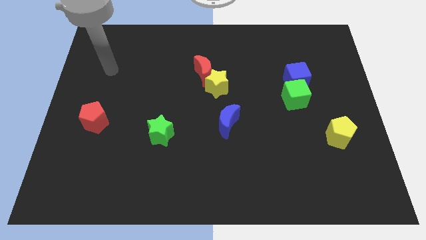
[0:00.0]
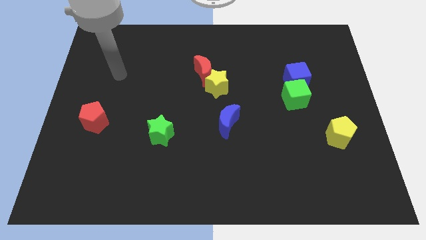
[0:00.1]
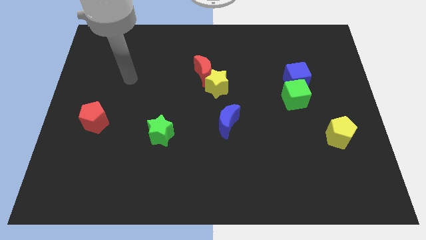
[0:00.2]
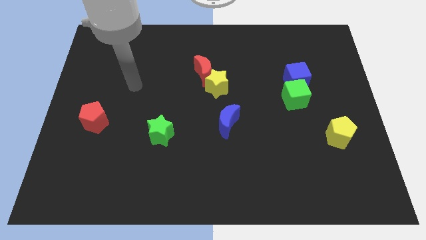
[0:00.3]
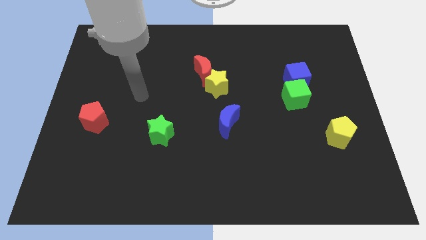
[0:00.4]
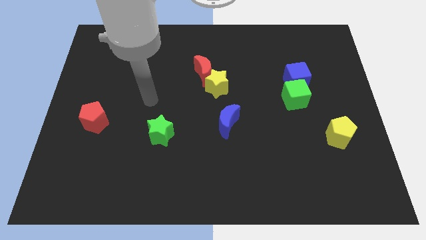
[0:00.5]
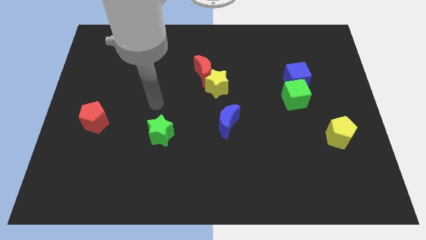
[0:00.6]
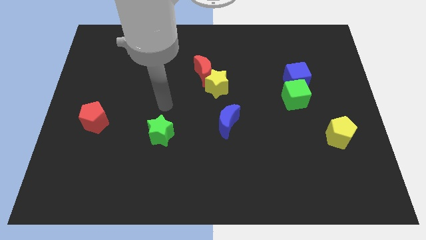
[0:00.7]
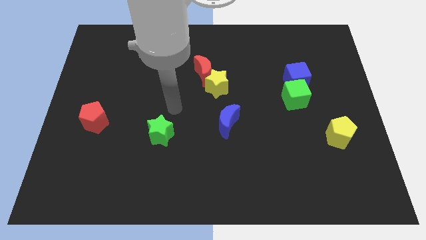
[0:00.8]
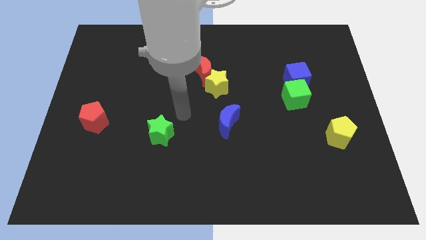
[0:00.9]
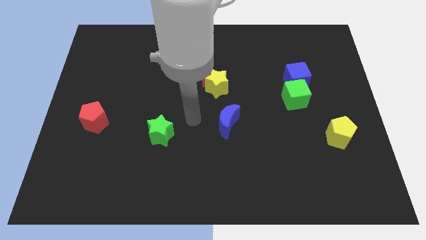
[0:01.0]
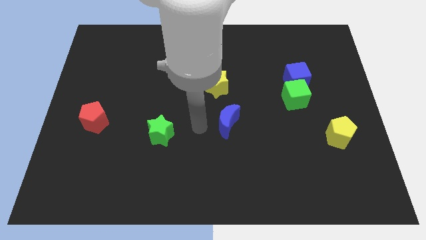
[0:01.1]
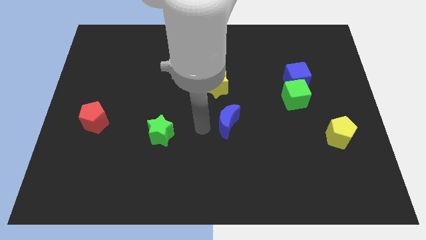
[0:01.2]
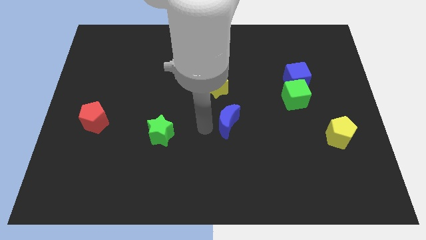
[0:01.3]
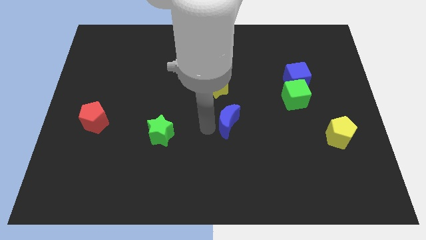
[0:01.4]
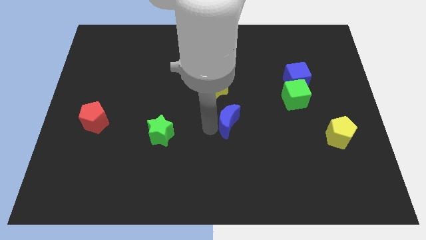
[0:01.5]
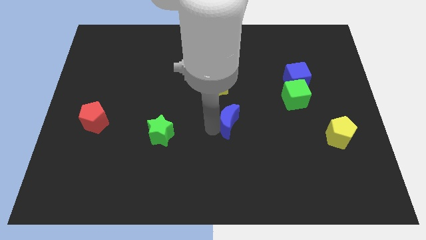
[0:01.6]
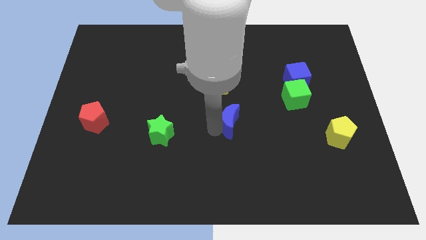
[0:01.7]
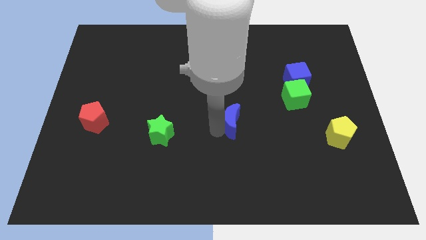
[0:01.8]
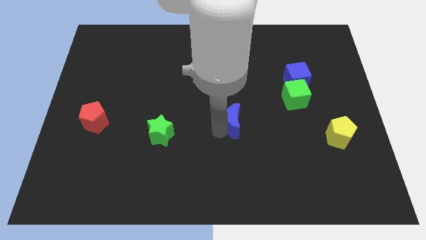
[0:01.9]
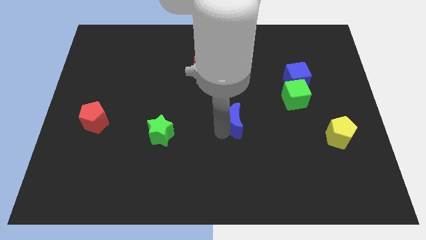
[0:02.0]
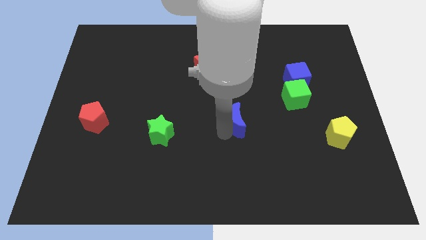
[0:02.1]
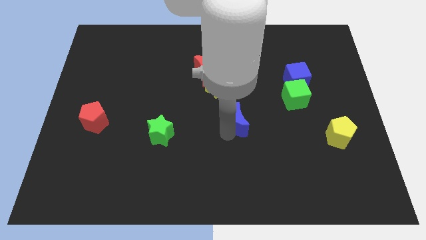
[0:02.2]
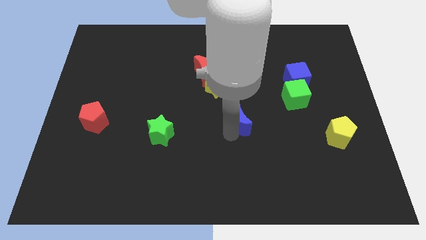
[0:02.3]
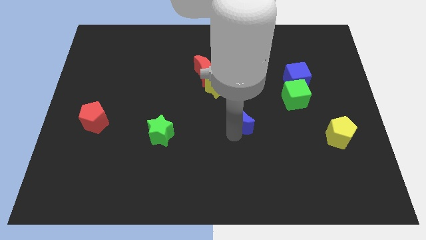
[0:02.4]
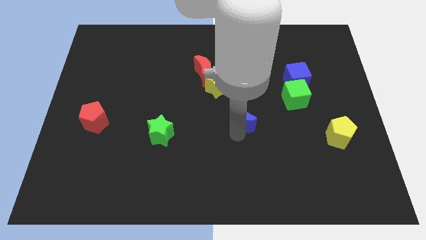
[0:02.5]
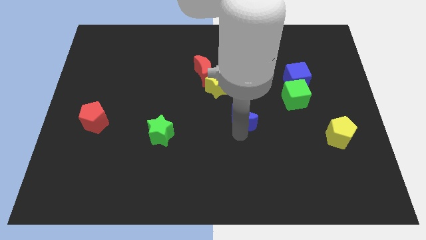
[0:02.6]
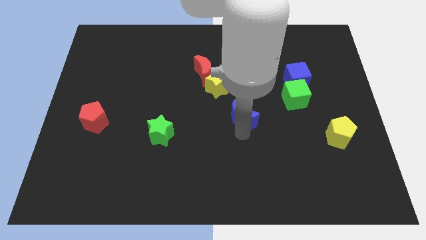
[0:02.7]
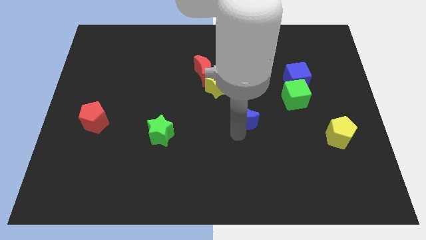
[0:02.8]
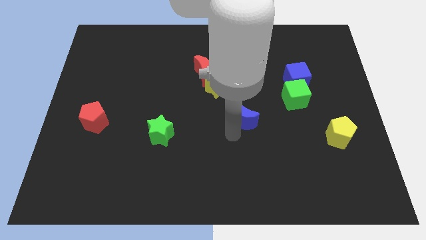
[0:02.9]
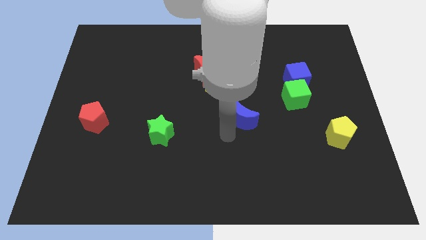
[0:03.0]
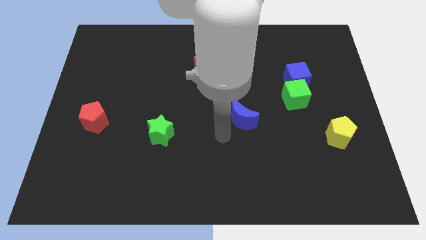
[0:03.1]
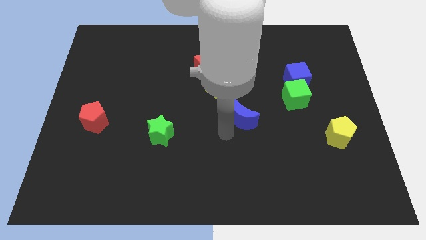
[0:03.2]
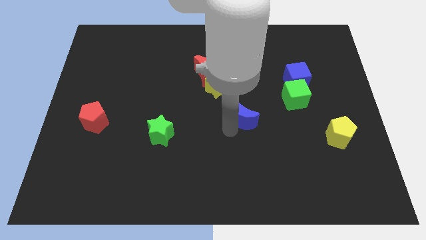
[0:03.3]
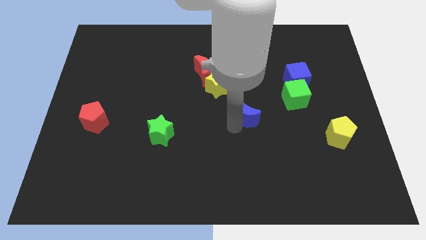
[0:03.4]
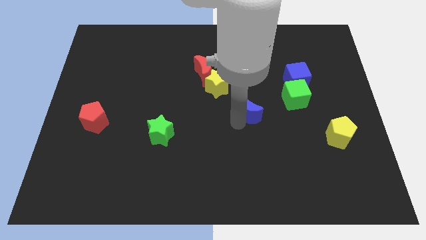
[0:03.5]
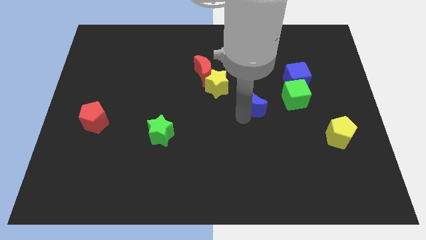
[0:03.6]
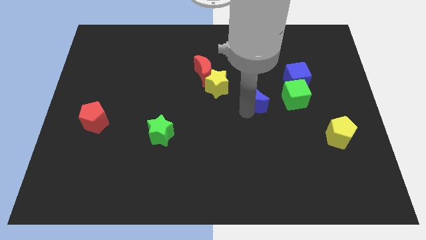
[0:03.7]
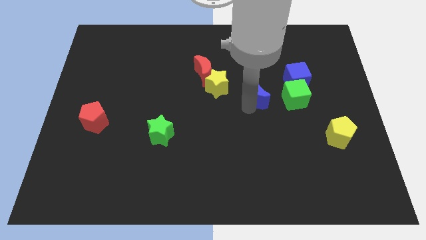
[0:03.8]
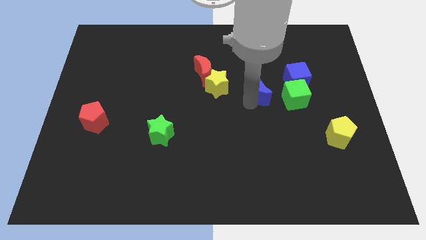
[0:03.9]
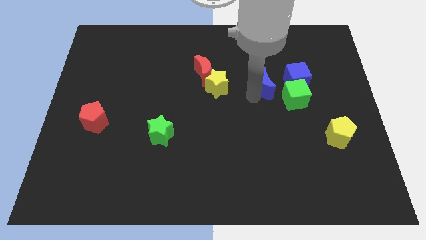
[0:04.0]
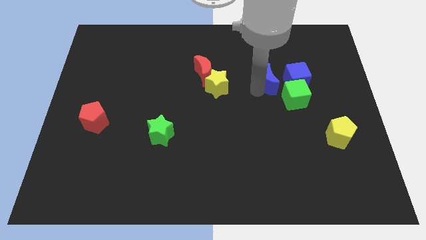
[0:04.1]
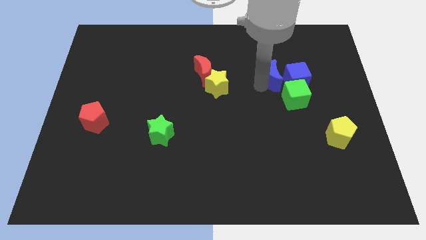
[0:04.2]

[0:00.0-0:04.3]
move the blue moon to the blue cube

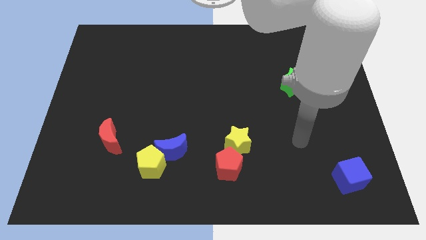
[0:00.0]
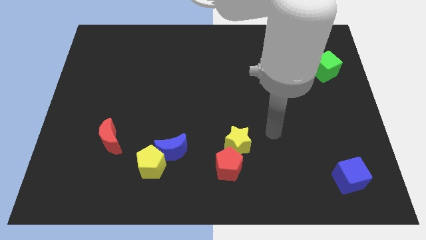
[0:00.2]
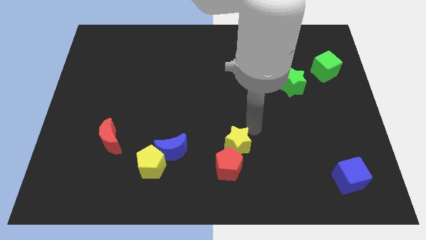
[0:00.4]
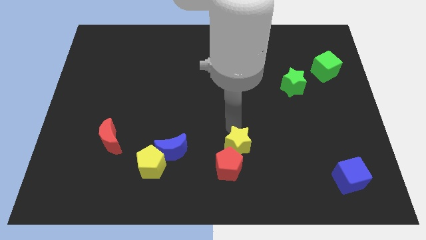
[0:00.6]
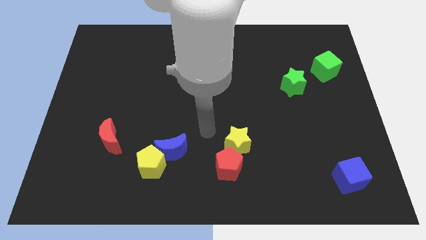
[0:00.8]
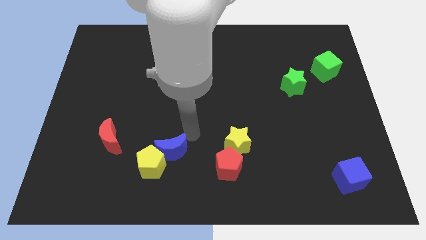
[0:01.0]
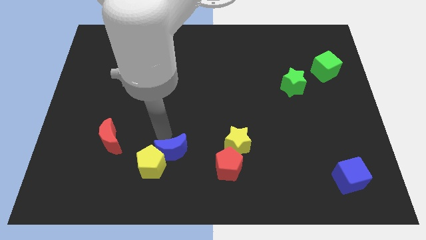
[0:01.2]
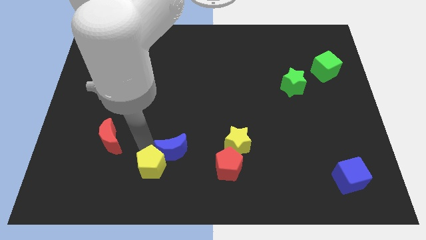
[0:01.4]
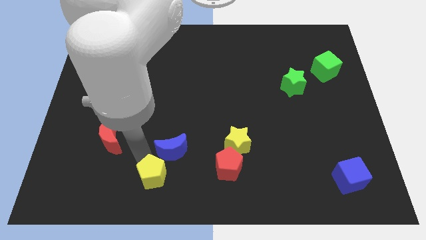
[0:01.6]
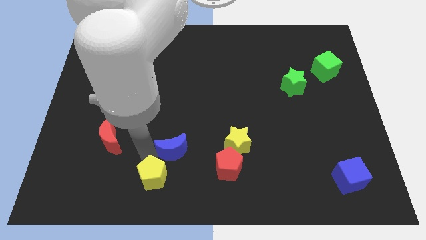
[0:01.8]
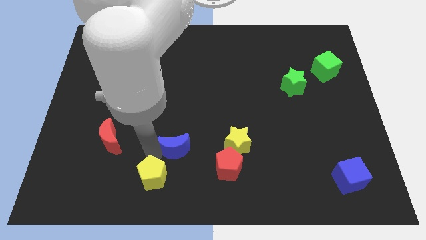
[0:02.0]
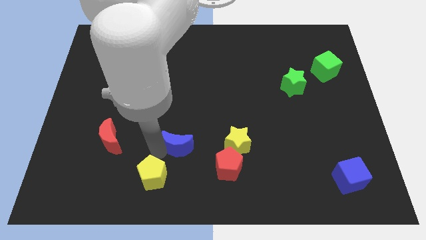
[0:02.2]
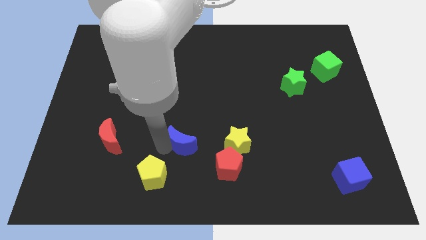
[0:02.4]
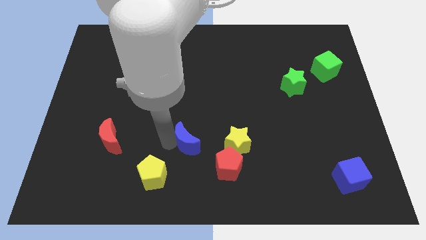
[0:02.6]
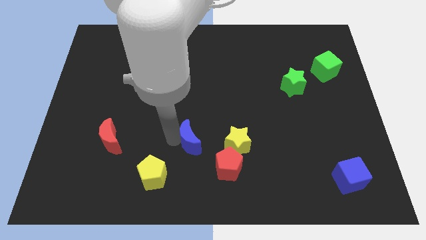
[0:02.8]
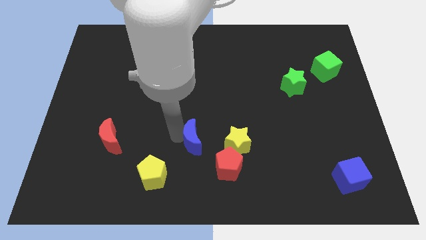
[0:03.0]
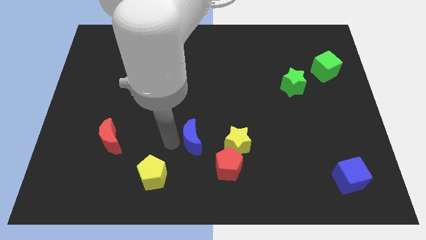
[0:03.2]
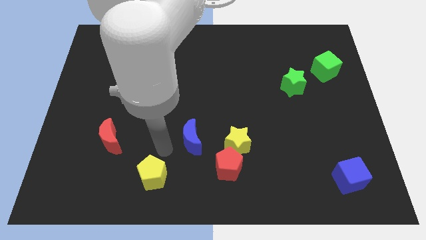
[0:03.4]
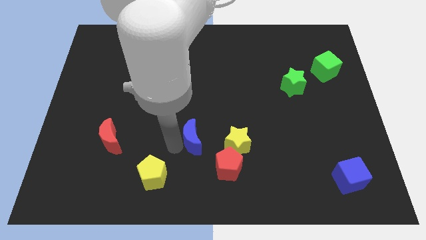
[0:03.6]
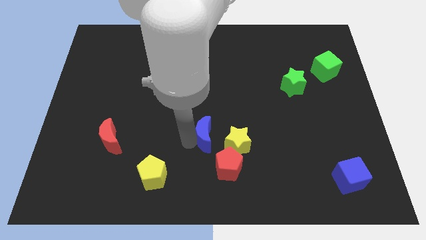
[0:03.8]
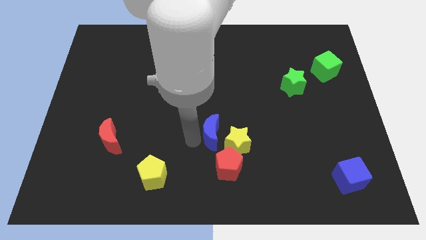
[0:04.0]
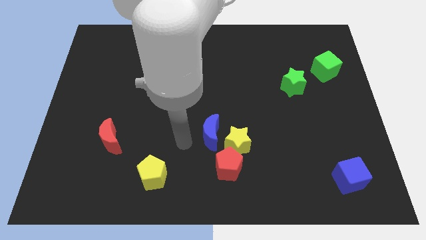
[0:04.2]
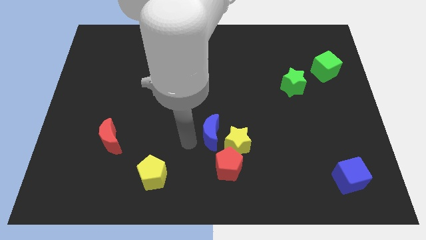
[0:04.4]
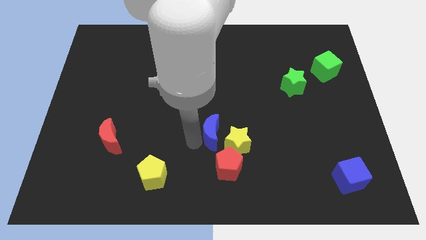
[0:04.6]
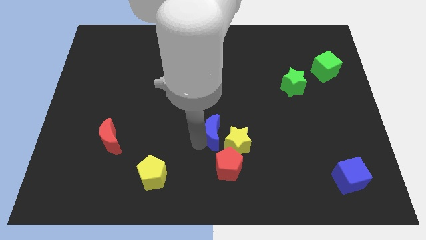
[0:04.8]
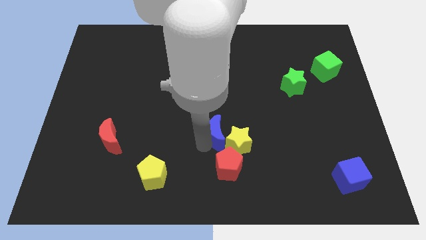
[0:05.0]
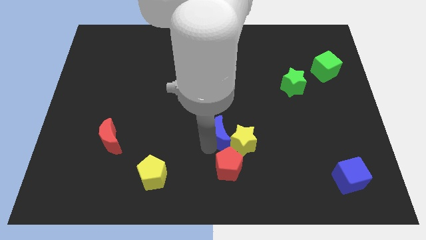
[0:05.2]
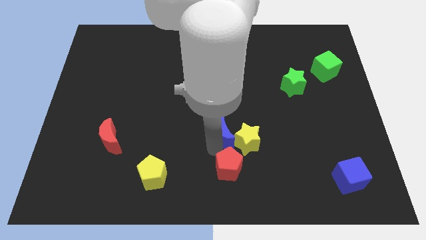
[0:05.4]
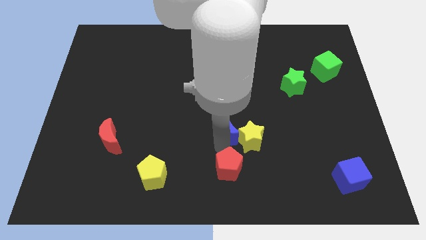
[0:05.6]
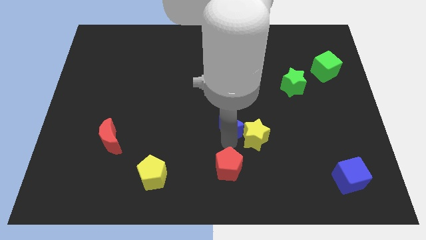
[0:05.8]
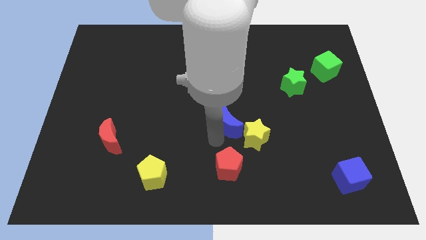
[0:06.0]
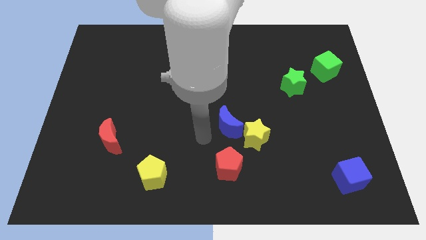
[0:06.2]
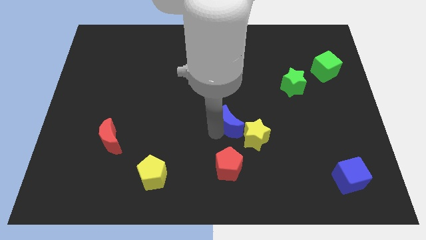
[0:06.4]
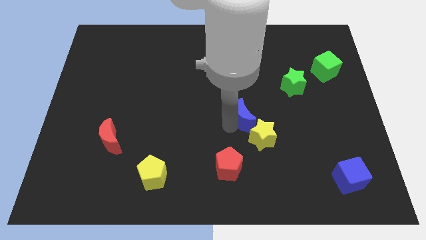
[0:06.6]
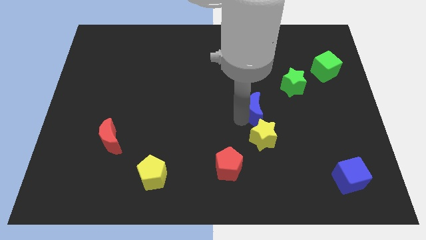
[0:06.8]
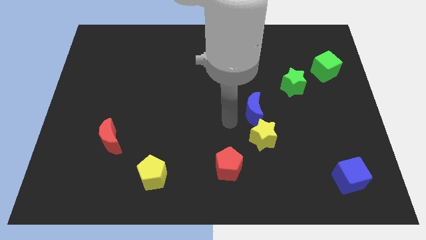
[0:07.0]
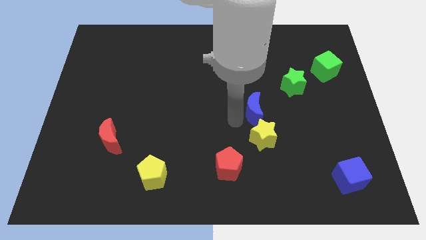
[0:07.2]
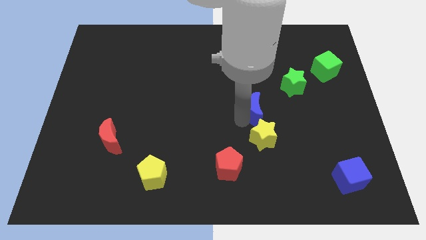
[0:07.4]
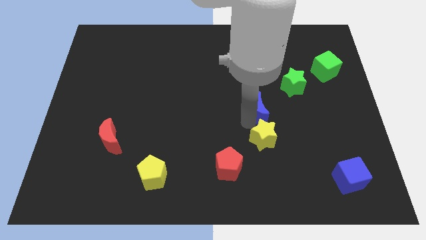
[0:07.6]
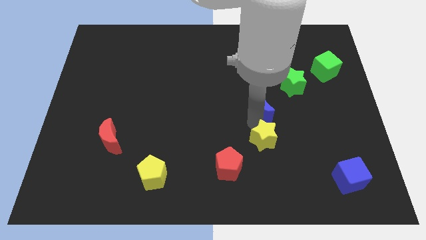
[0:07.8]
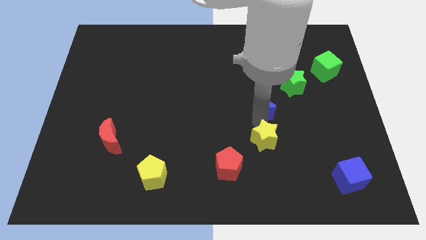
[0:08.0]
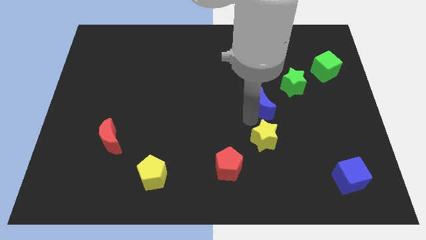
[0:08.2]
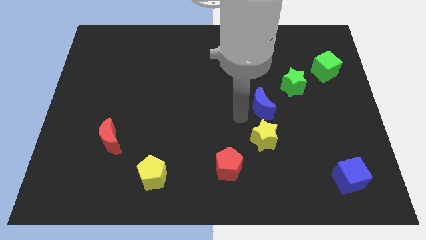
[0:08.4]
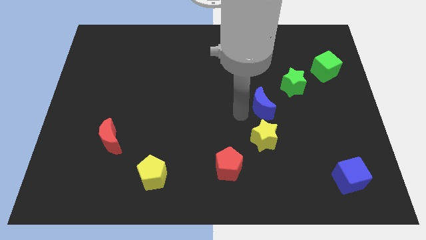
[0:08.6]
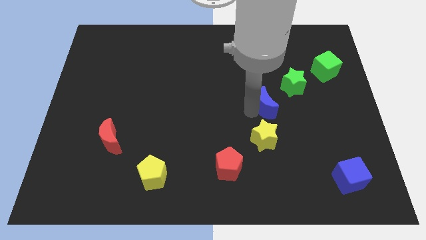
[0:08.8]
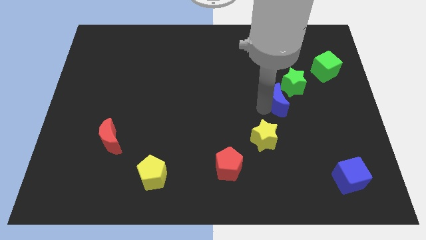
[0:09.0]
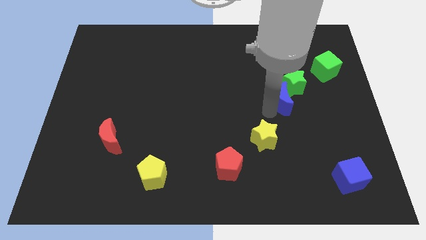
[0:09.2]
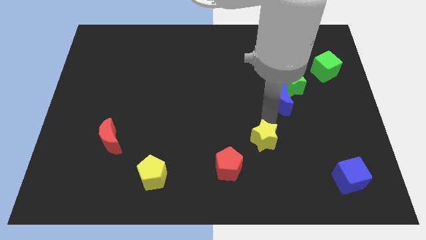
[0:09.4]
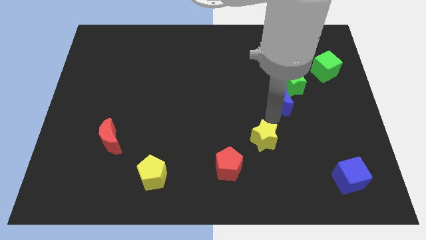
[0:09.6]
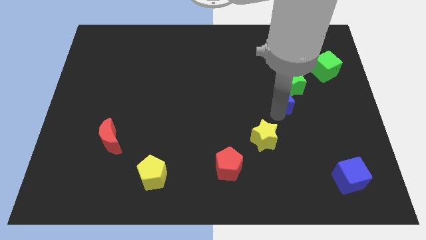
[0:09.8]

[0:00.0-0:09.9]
slide the blue moon close to the green star
